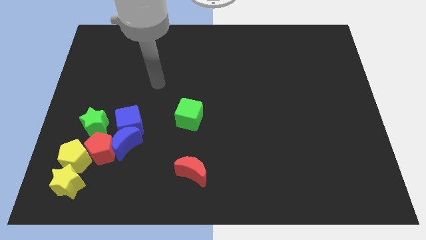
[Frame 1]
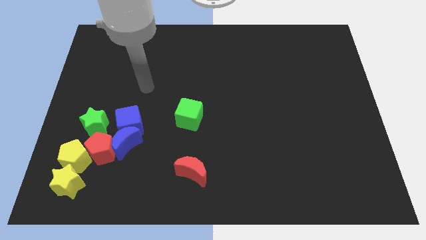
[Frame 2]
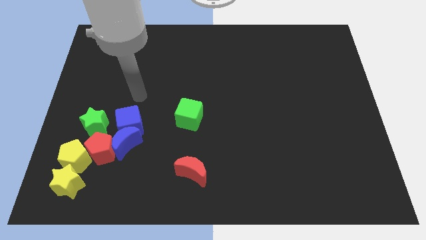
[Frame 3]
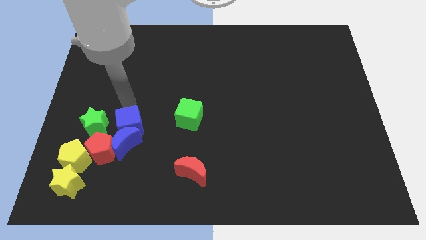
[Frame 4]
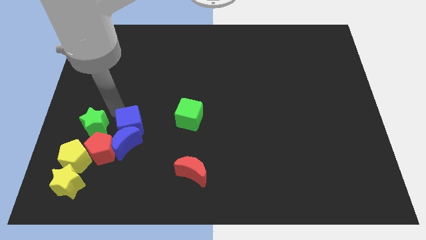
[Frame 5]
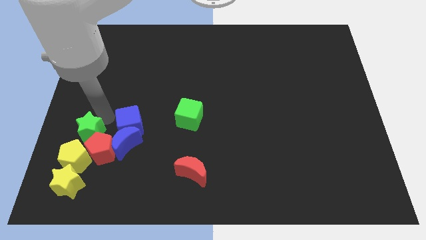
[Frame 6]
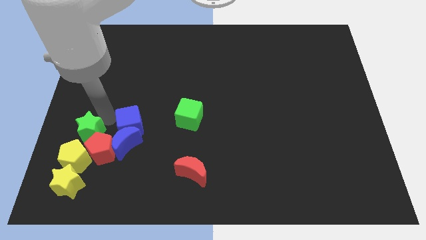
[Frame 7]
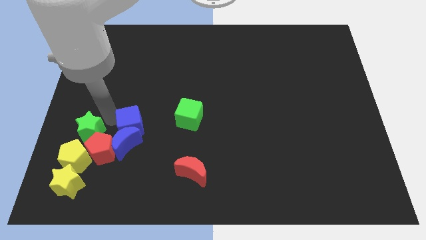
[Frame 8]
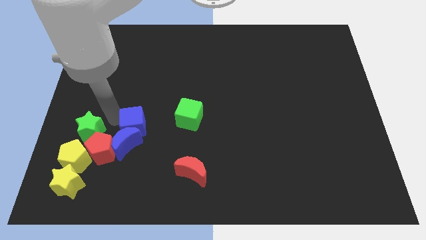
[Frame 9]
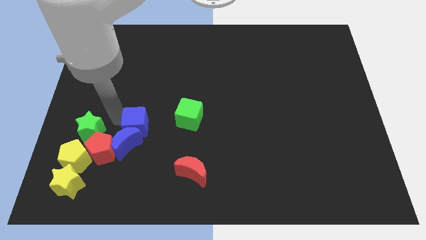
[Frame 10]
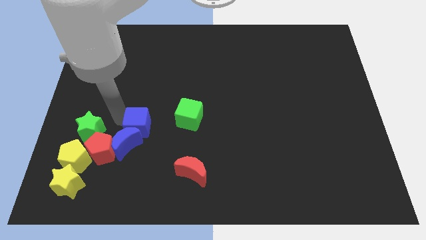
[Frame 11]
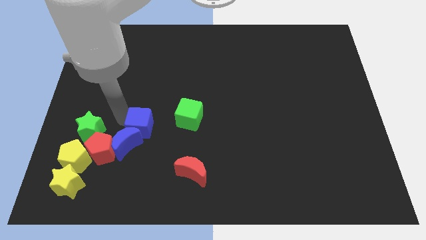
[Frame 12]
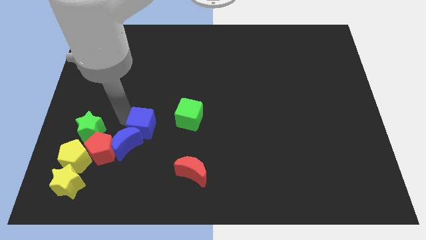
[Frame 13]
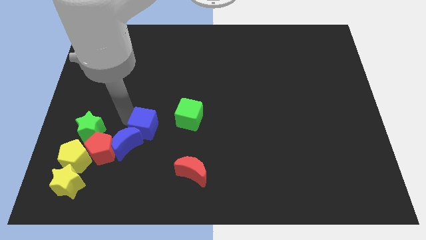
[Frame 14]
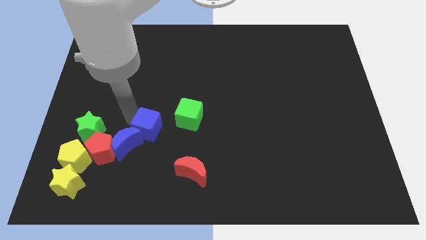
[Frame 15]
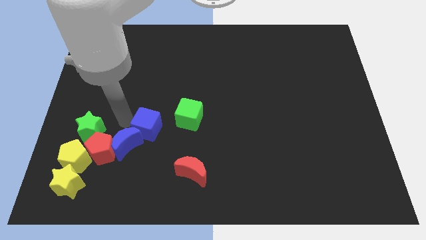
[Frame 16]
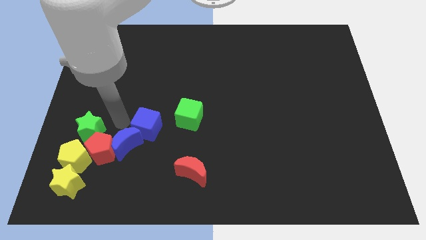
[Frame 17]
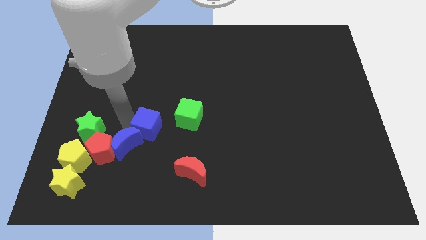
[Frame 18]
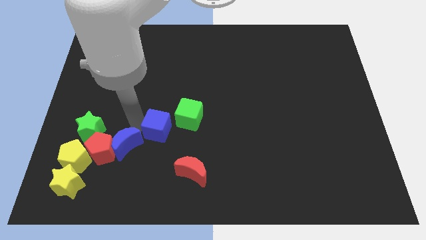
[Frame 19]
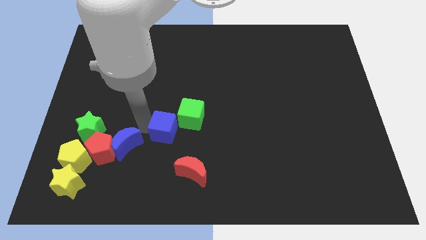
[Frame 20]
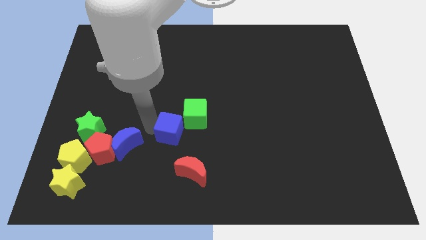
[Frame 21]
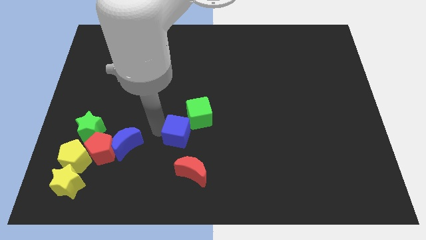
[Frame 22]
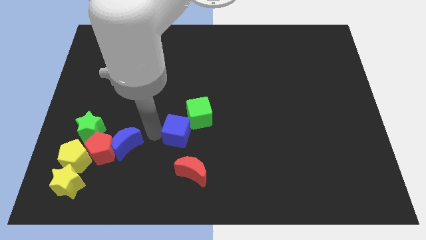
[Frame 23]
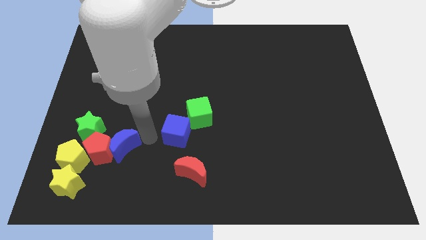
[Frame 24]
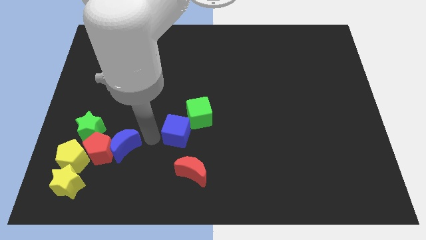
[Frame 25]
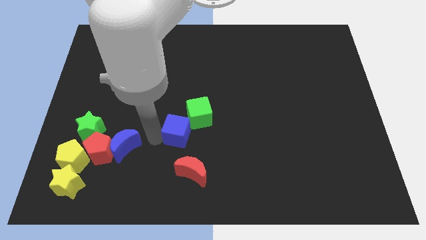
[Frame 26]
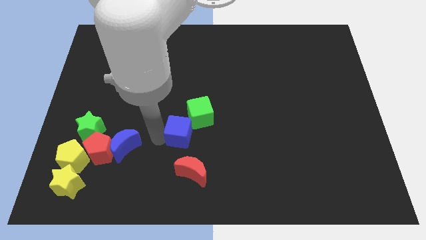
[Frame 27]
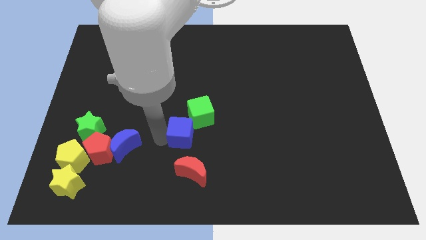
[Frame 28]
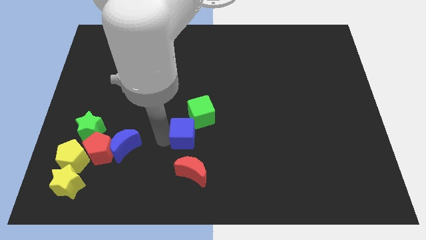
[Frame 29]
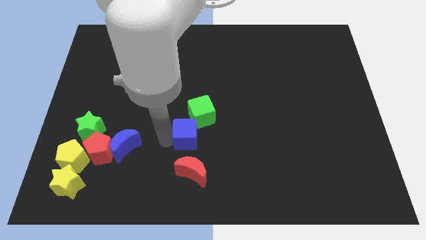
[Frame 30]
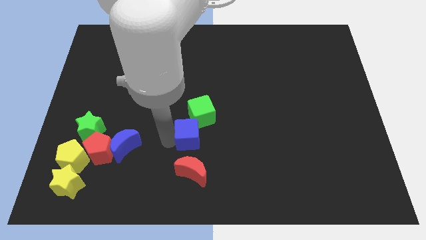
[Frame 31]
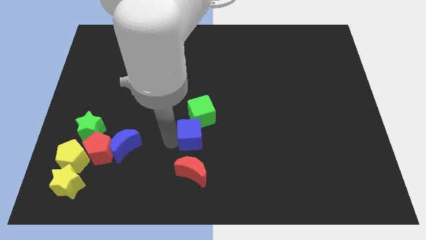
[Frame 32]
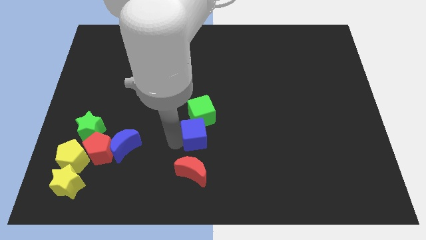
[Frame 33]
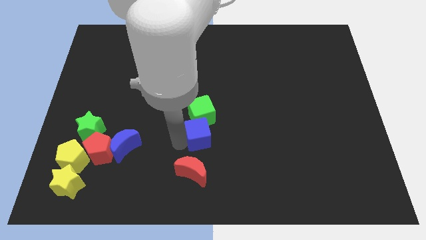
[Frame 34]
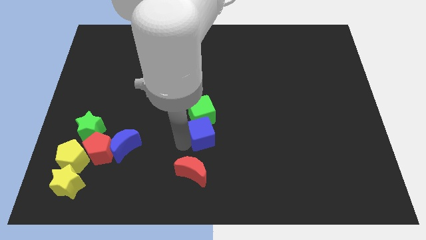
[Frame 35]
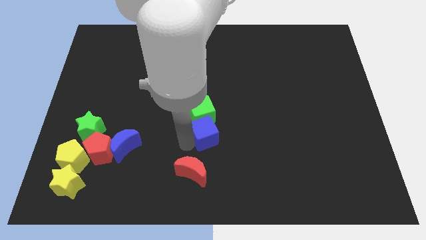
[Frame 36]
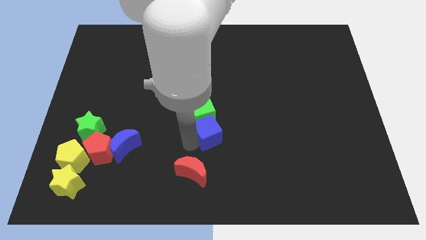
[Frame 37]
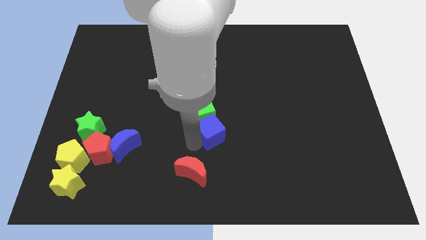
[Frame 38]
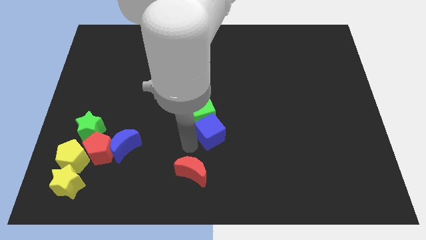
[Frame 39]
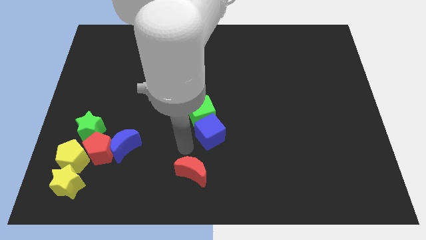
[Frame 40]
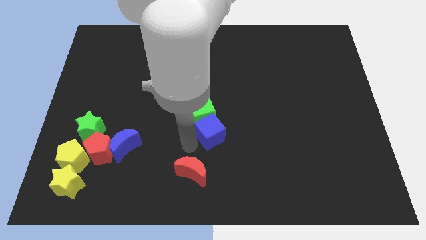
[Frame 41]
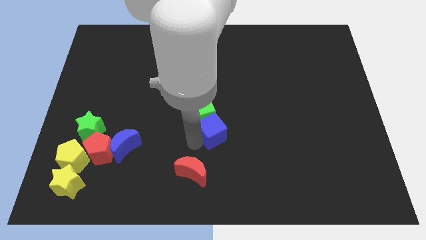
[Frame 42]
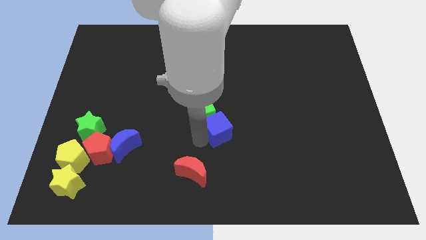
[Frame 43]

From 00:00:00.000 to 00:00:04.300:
slide the blue cube to the right

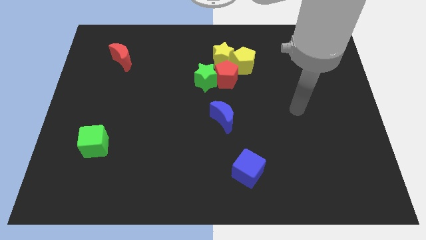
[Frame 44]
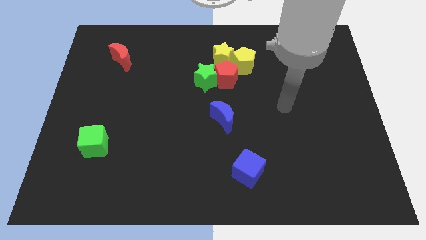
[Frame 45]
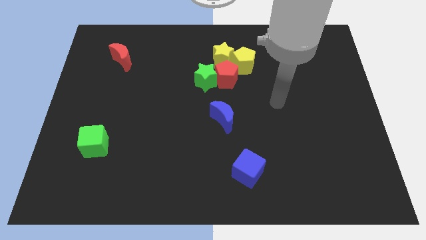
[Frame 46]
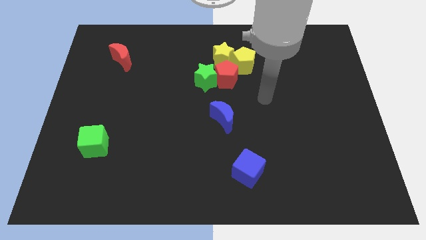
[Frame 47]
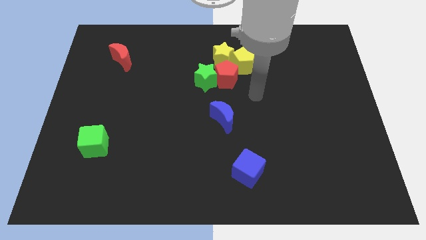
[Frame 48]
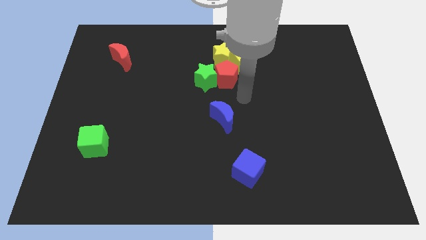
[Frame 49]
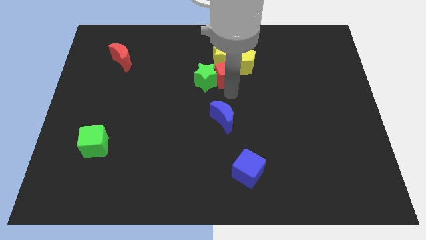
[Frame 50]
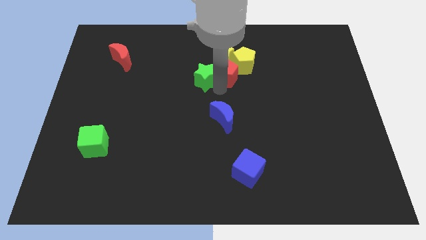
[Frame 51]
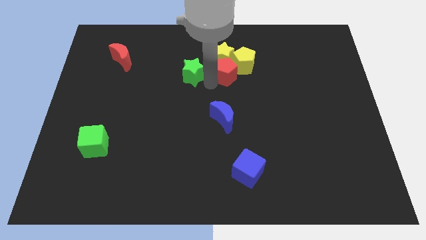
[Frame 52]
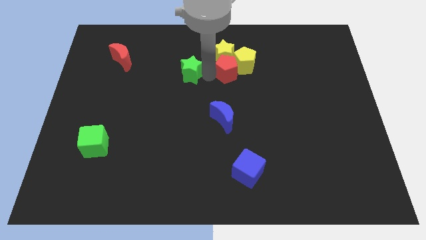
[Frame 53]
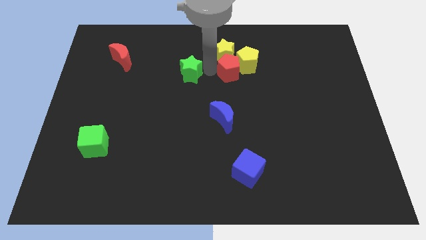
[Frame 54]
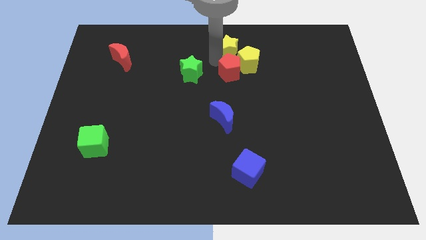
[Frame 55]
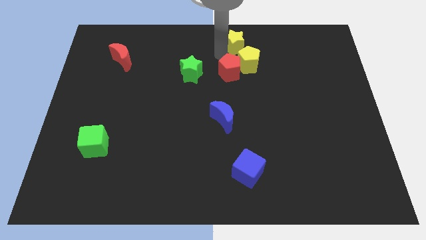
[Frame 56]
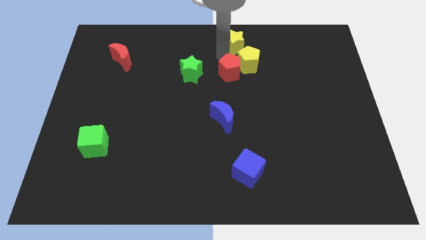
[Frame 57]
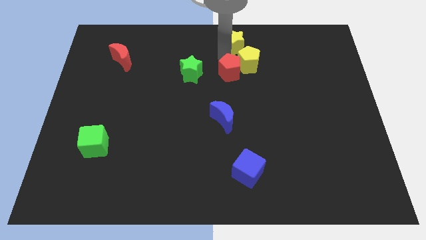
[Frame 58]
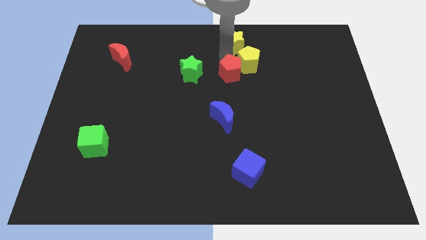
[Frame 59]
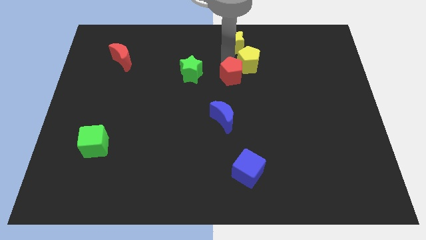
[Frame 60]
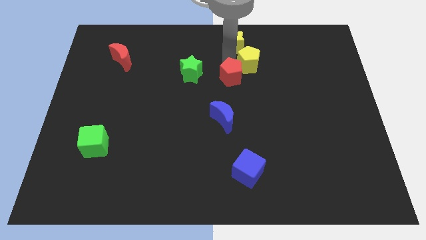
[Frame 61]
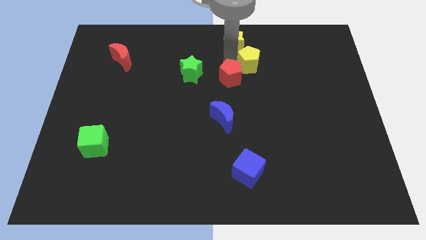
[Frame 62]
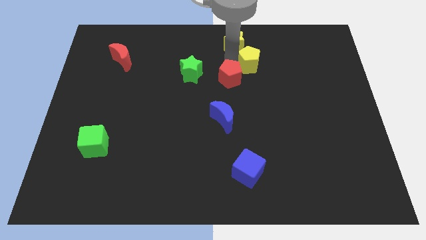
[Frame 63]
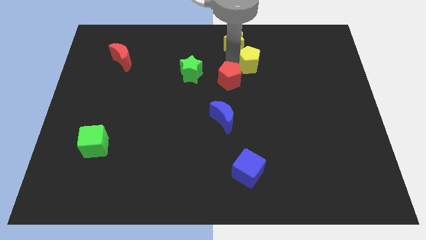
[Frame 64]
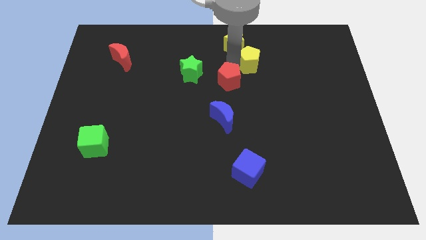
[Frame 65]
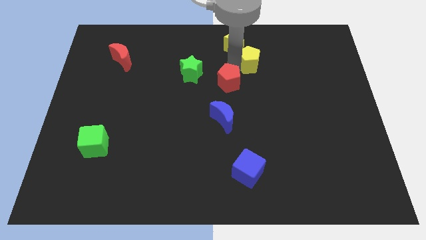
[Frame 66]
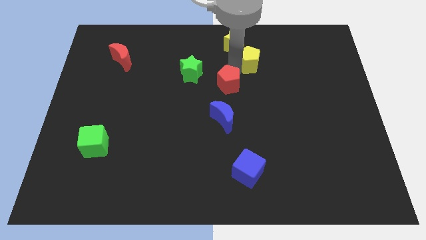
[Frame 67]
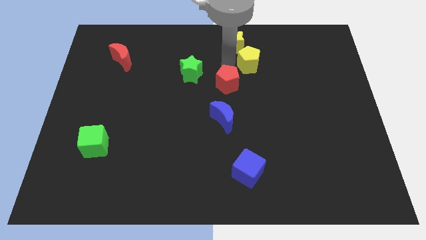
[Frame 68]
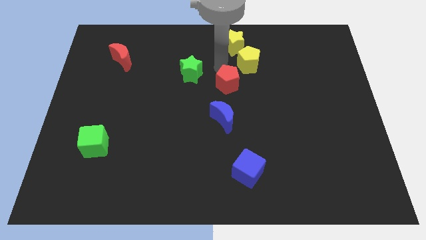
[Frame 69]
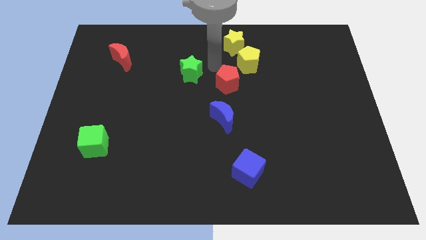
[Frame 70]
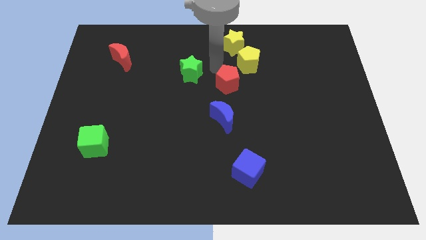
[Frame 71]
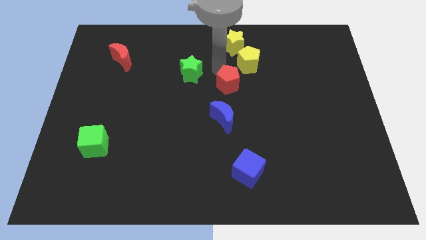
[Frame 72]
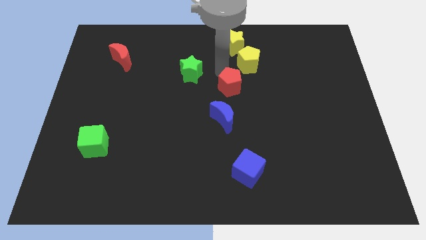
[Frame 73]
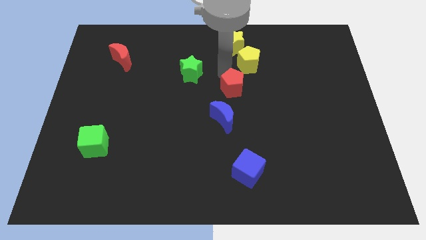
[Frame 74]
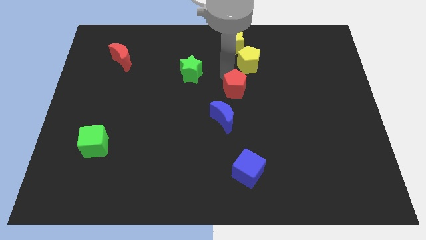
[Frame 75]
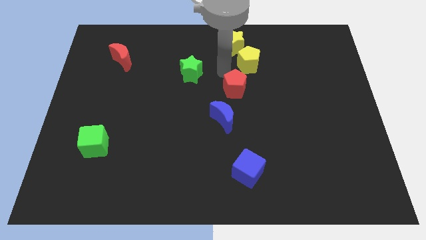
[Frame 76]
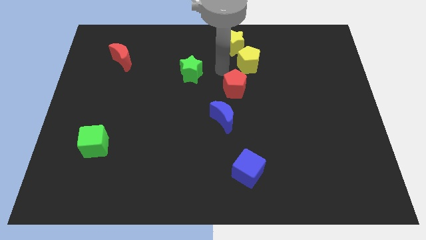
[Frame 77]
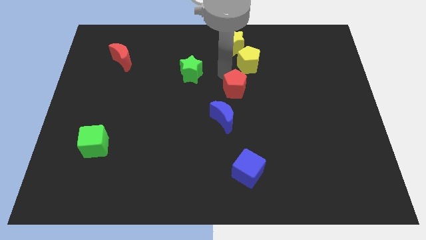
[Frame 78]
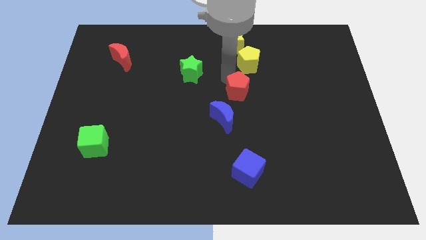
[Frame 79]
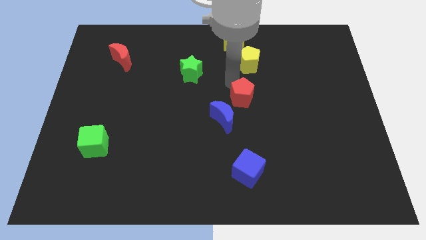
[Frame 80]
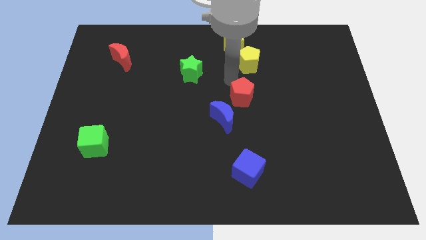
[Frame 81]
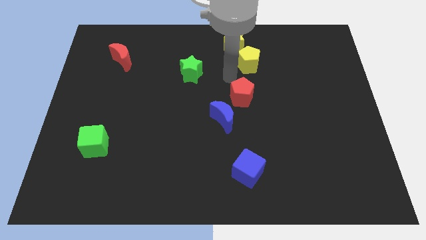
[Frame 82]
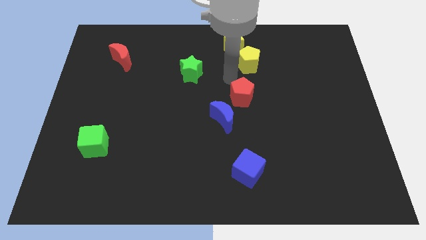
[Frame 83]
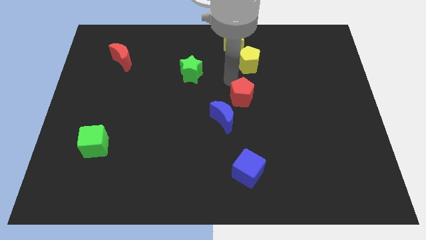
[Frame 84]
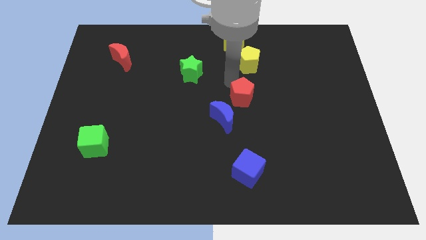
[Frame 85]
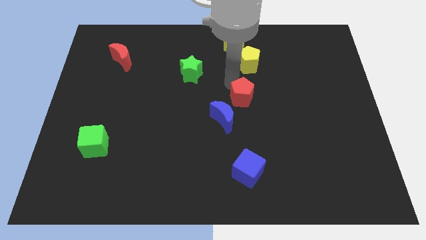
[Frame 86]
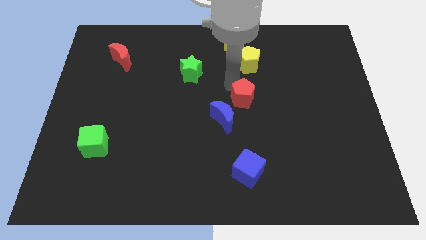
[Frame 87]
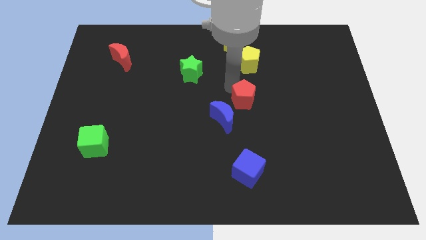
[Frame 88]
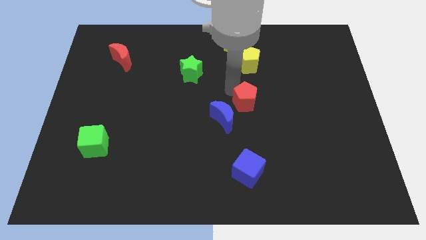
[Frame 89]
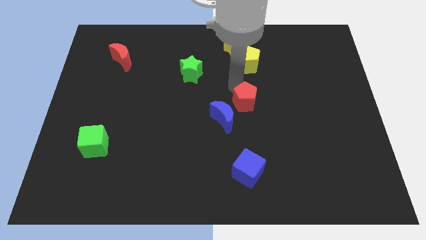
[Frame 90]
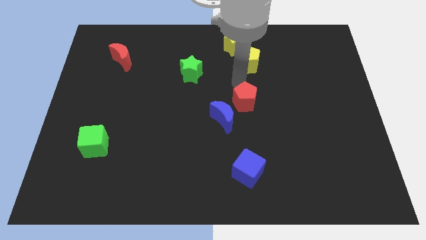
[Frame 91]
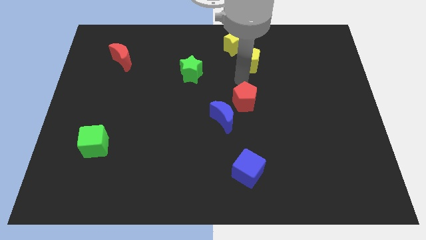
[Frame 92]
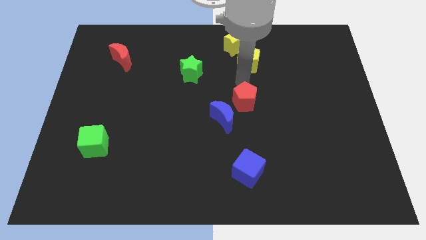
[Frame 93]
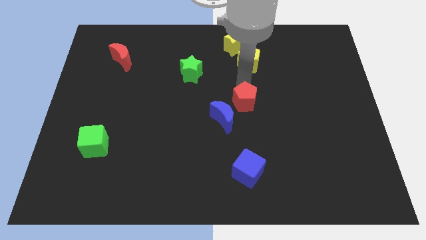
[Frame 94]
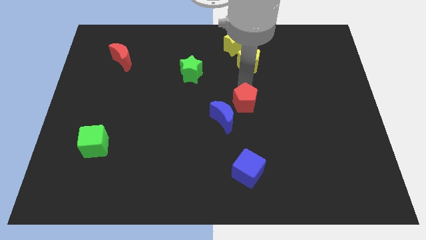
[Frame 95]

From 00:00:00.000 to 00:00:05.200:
move the red pentagon downwards slightly
